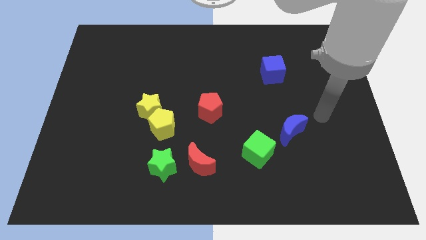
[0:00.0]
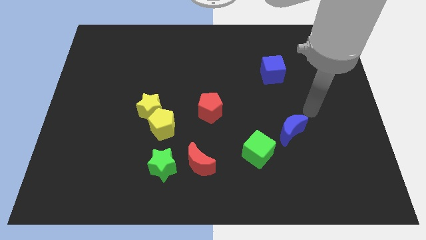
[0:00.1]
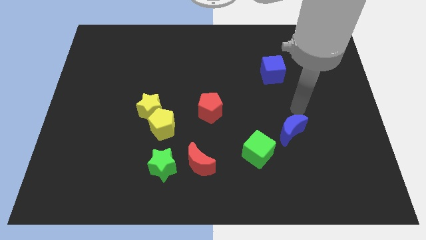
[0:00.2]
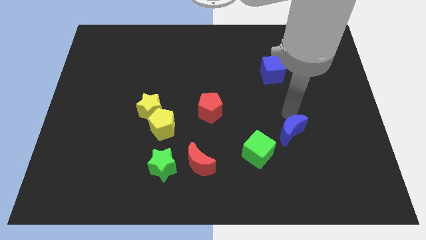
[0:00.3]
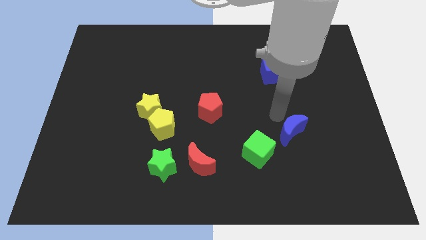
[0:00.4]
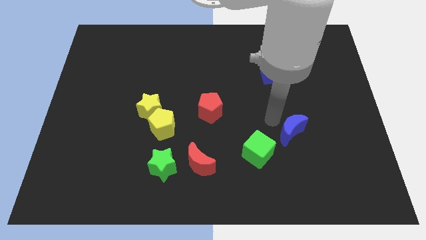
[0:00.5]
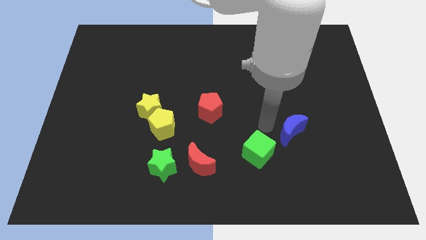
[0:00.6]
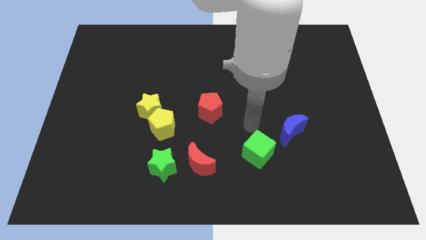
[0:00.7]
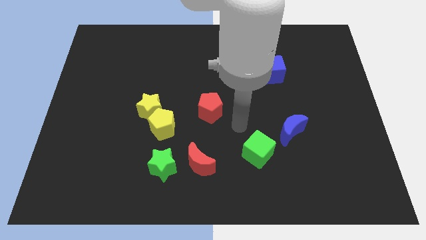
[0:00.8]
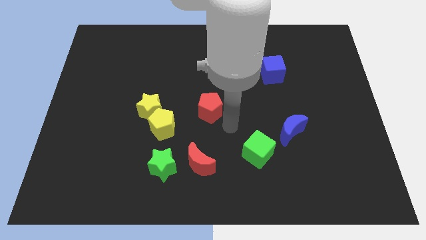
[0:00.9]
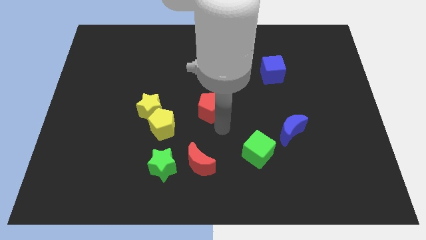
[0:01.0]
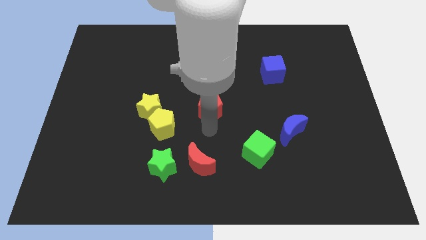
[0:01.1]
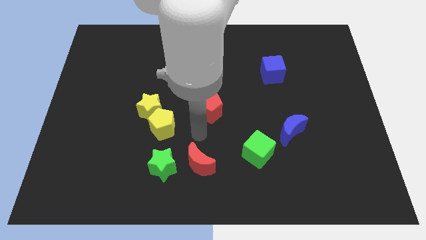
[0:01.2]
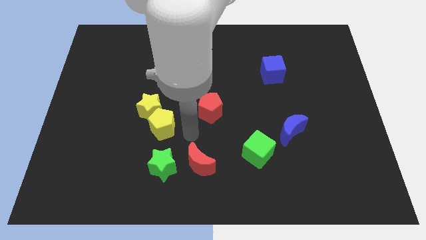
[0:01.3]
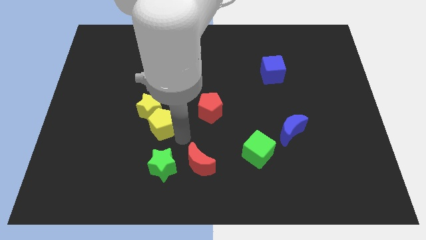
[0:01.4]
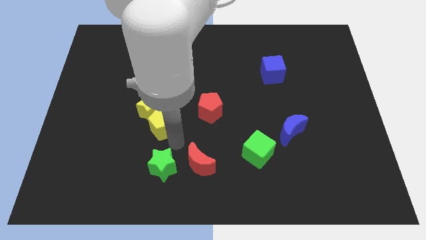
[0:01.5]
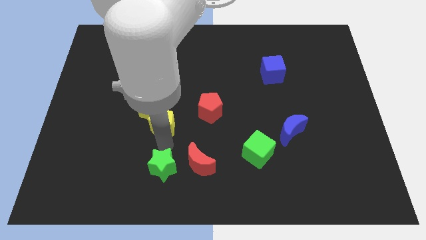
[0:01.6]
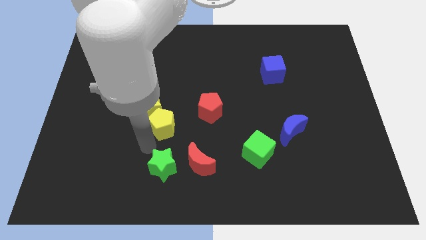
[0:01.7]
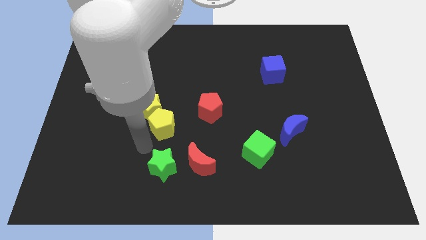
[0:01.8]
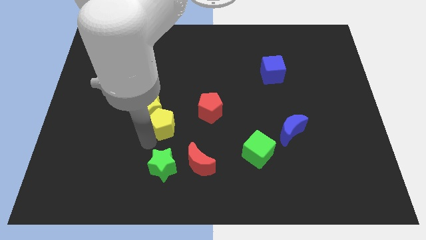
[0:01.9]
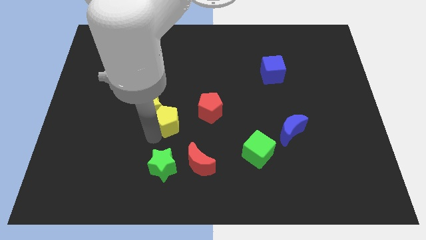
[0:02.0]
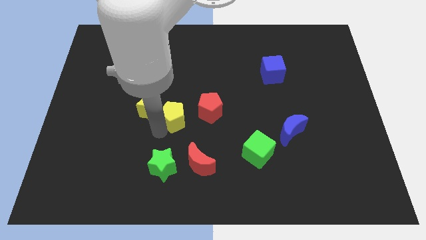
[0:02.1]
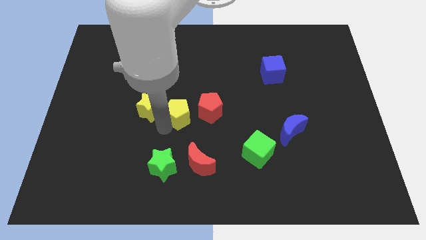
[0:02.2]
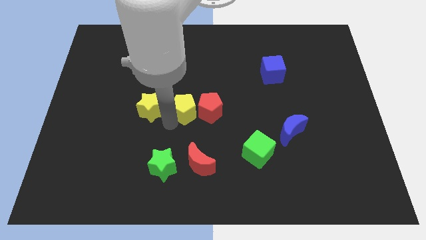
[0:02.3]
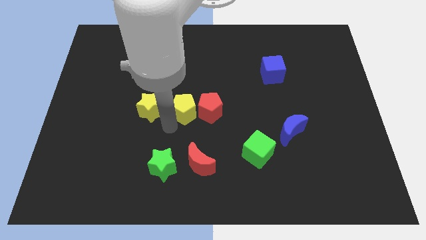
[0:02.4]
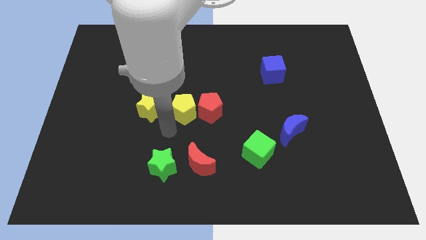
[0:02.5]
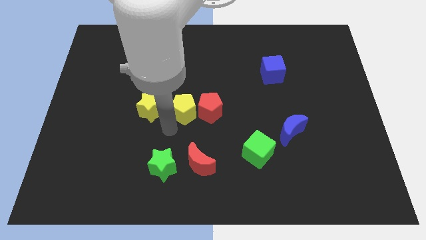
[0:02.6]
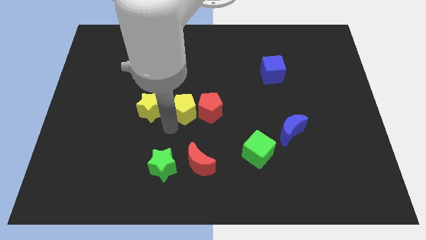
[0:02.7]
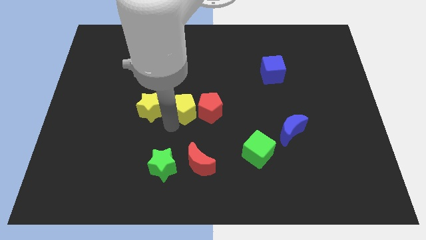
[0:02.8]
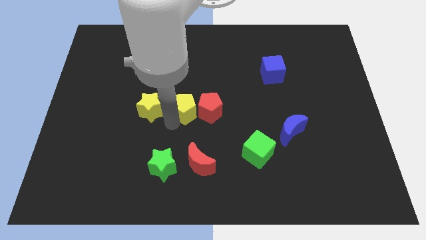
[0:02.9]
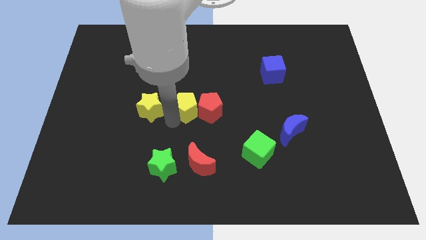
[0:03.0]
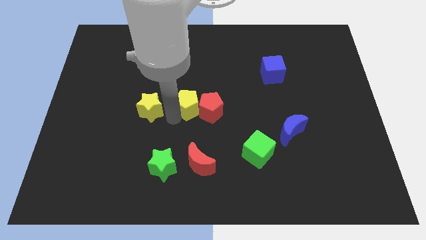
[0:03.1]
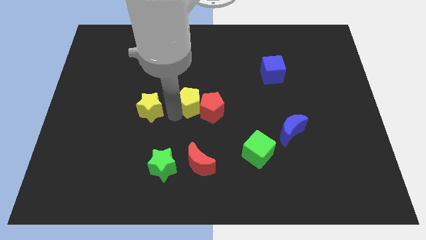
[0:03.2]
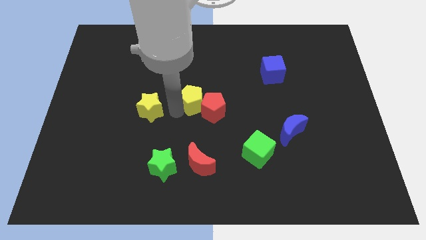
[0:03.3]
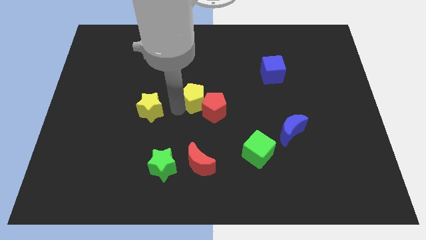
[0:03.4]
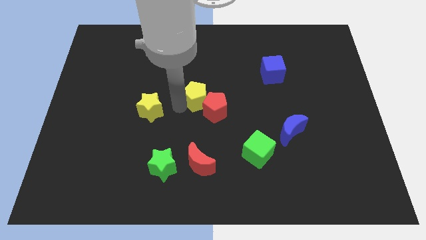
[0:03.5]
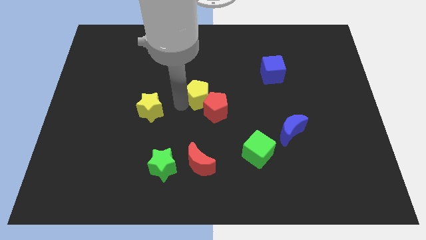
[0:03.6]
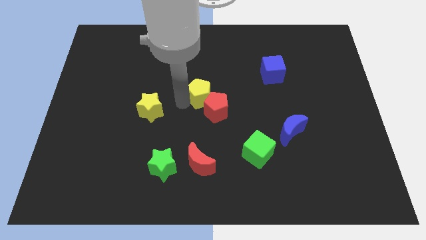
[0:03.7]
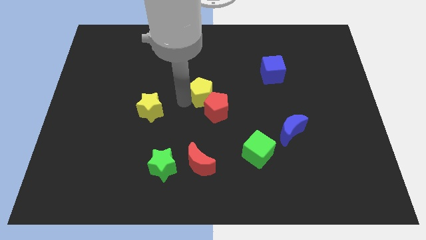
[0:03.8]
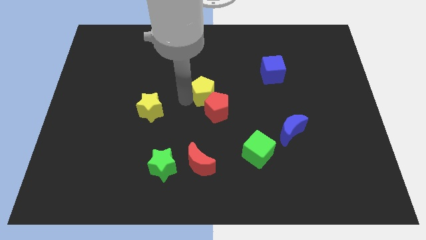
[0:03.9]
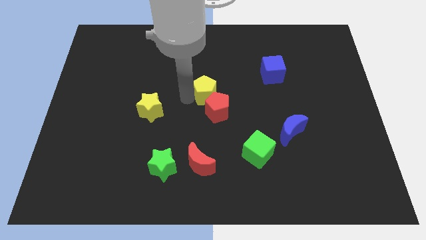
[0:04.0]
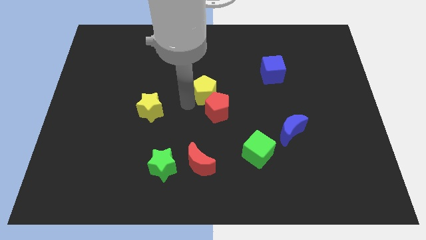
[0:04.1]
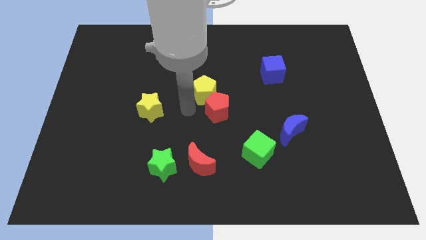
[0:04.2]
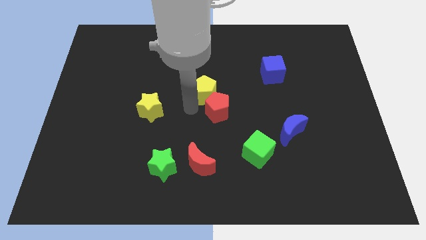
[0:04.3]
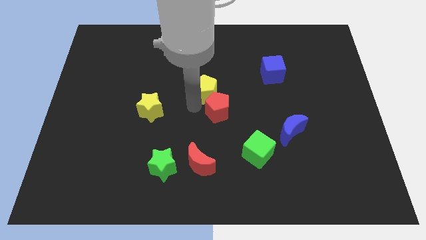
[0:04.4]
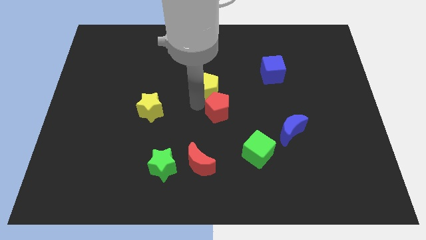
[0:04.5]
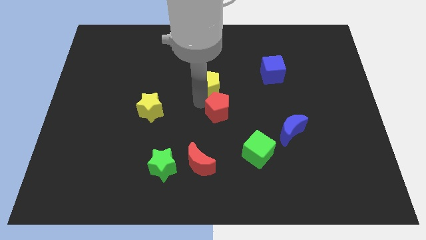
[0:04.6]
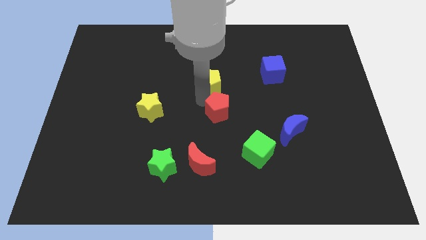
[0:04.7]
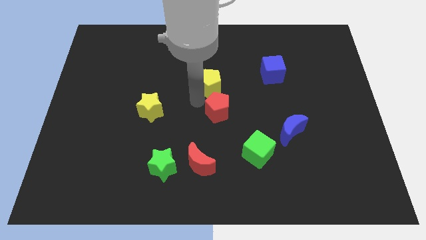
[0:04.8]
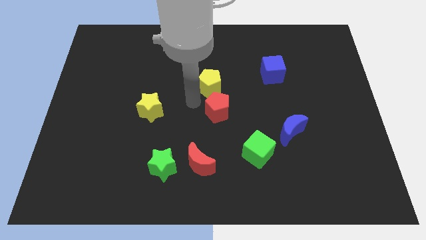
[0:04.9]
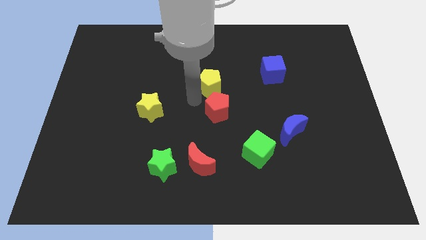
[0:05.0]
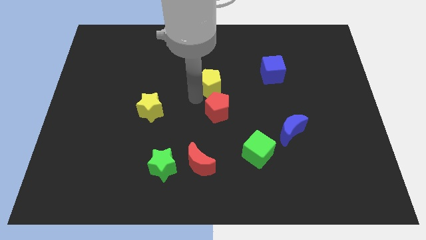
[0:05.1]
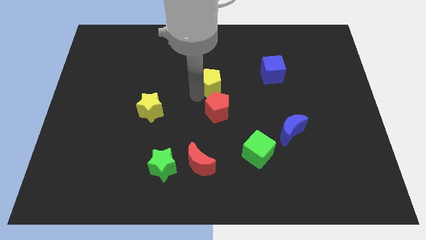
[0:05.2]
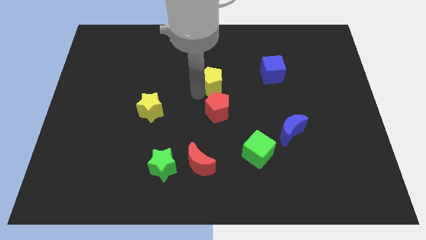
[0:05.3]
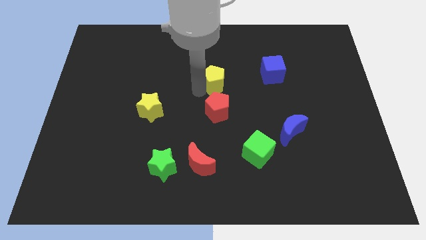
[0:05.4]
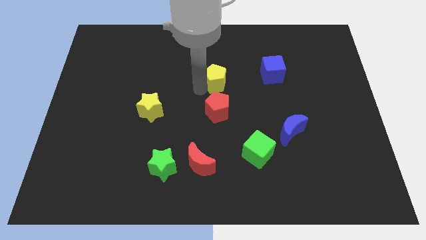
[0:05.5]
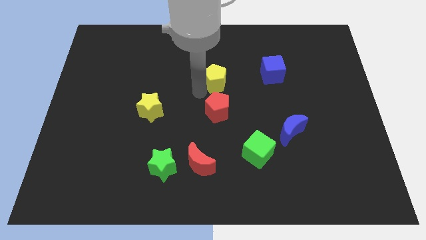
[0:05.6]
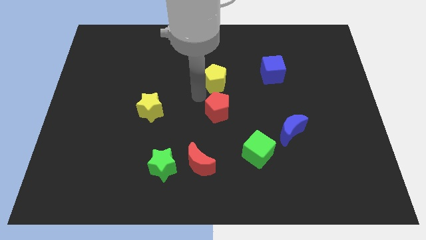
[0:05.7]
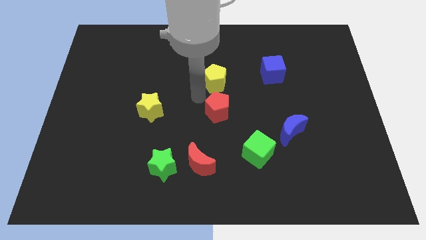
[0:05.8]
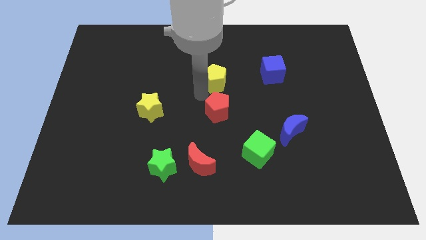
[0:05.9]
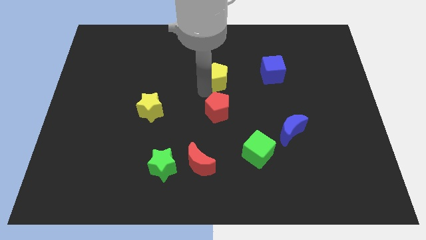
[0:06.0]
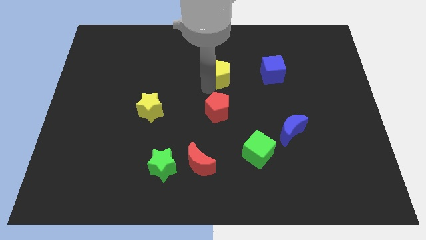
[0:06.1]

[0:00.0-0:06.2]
push the yellow pentagon upwards and right

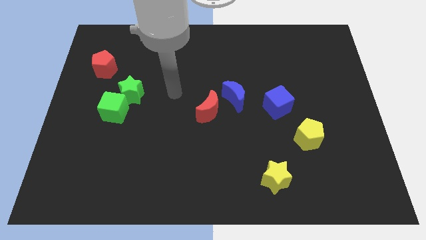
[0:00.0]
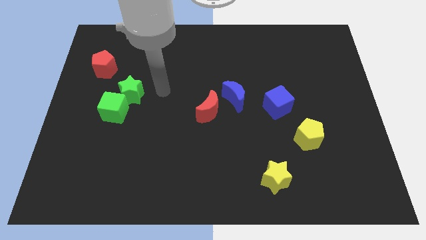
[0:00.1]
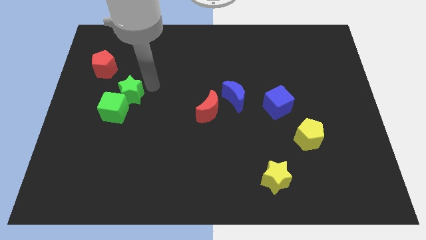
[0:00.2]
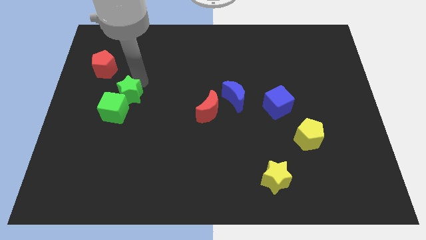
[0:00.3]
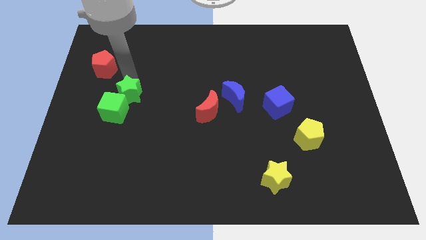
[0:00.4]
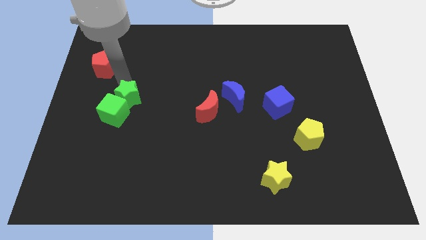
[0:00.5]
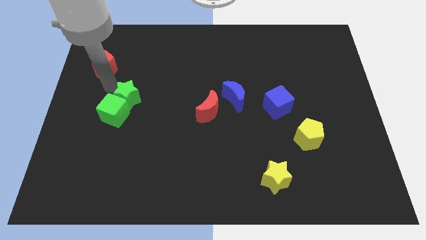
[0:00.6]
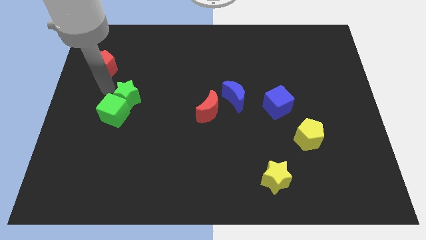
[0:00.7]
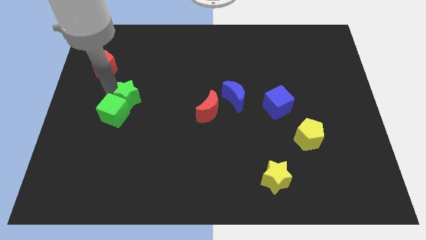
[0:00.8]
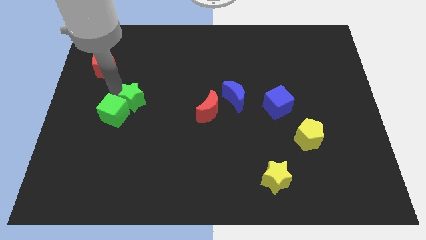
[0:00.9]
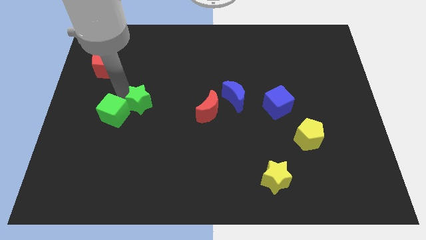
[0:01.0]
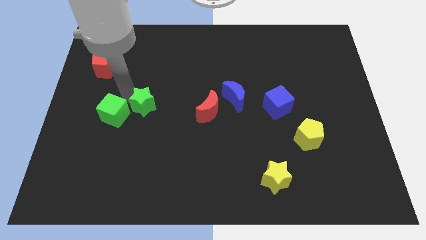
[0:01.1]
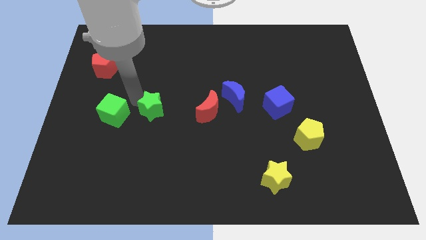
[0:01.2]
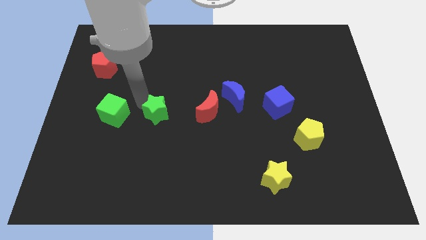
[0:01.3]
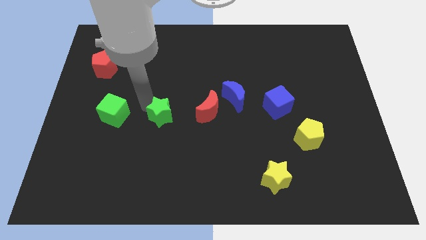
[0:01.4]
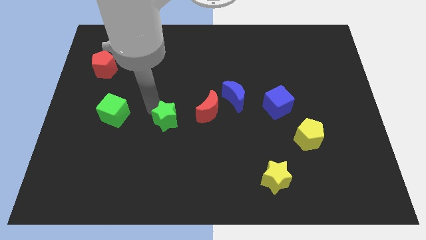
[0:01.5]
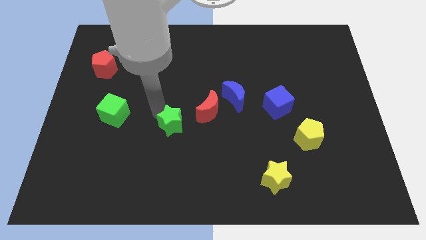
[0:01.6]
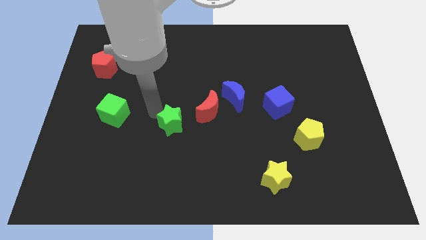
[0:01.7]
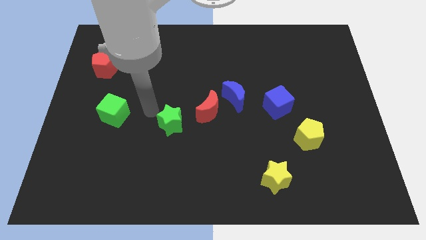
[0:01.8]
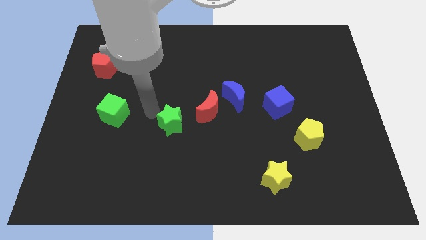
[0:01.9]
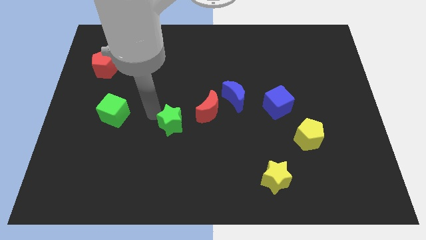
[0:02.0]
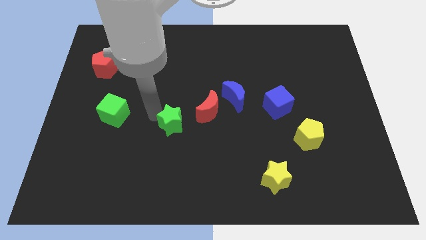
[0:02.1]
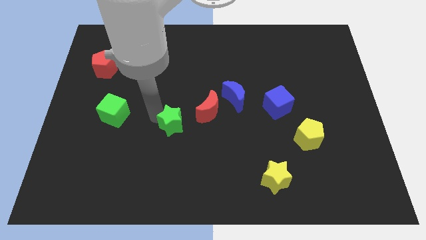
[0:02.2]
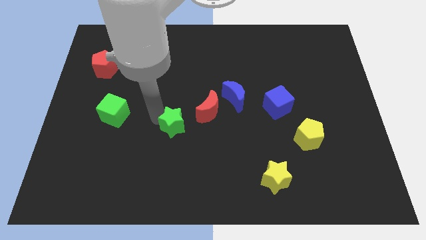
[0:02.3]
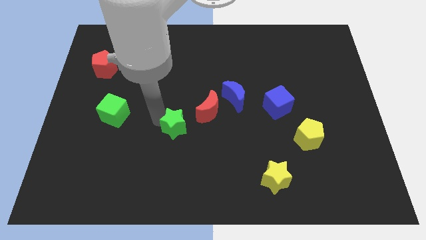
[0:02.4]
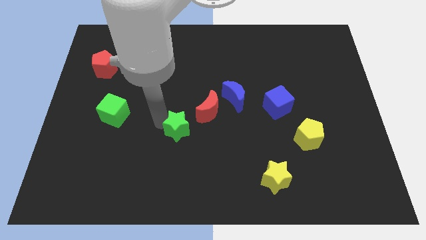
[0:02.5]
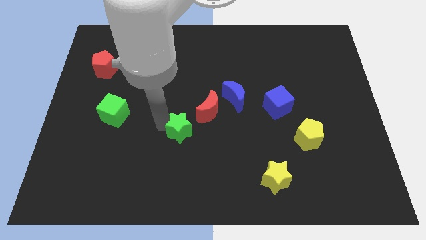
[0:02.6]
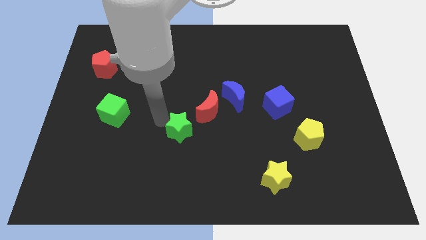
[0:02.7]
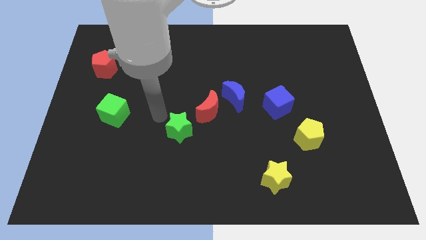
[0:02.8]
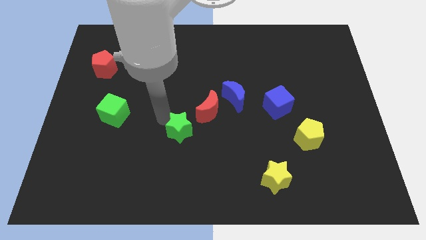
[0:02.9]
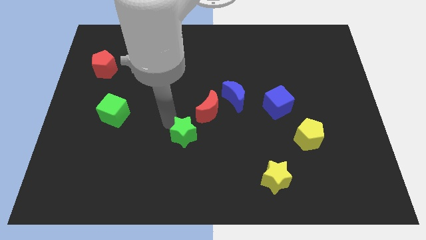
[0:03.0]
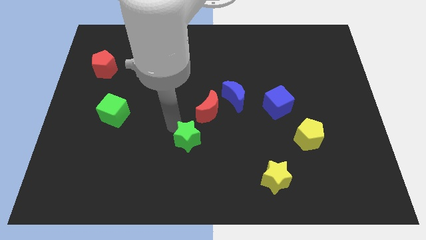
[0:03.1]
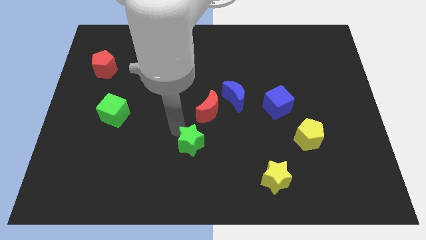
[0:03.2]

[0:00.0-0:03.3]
move the green star downwards and then right
